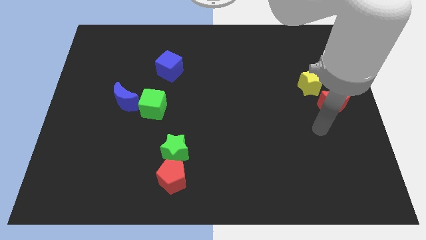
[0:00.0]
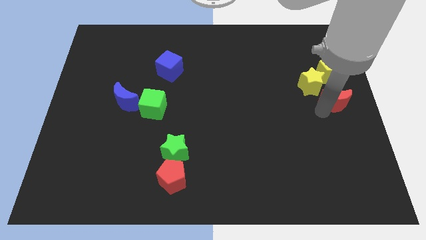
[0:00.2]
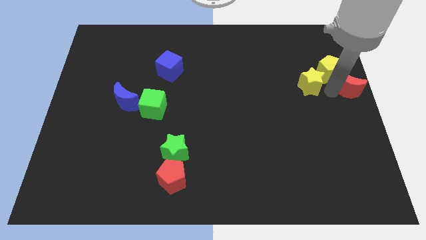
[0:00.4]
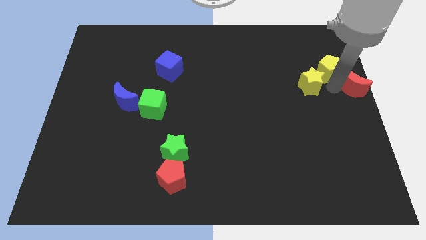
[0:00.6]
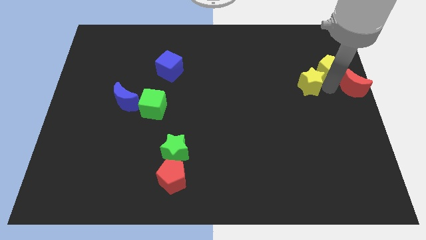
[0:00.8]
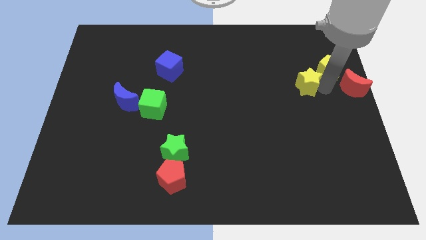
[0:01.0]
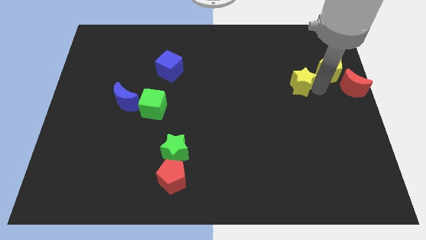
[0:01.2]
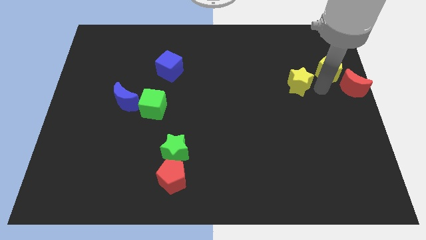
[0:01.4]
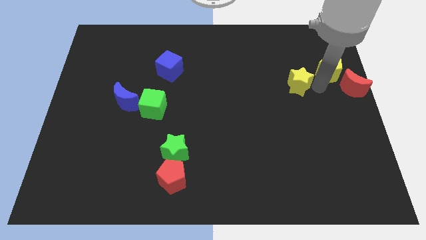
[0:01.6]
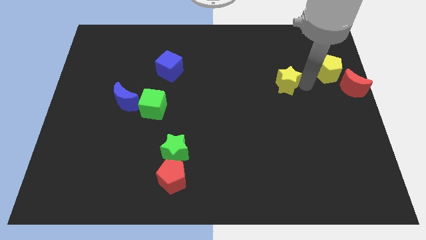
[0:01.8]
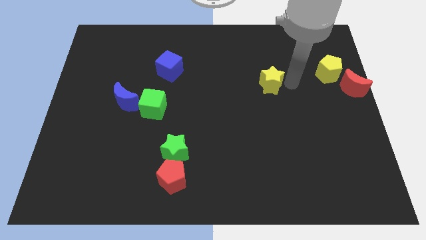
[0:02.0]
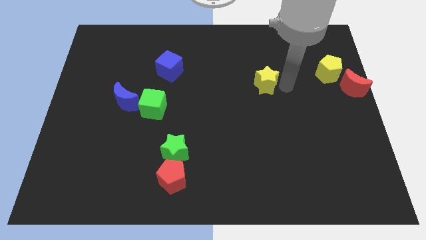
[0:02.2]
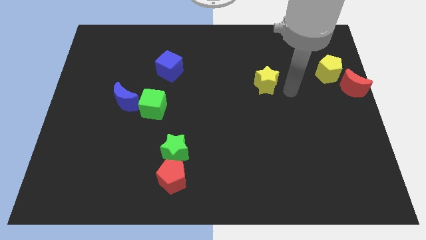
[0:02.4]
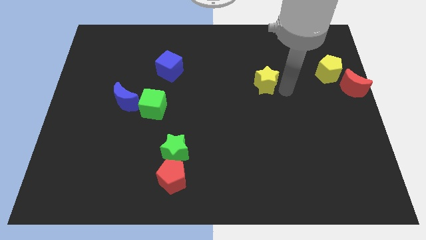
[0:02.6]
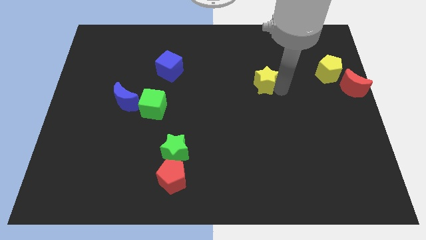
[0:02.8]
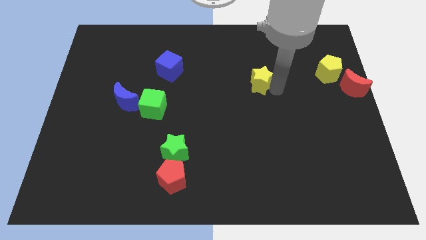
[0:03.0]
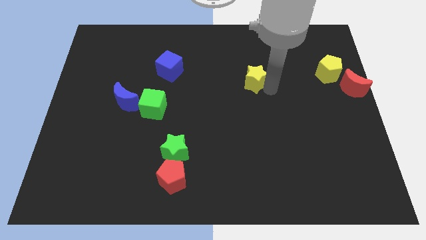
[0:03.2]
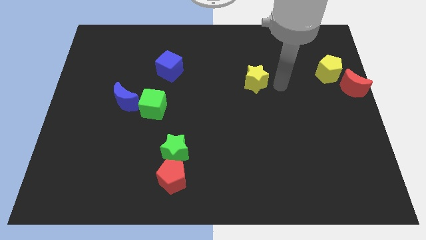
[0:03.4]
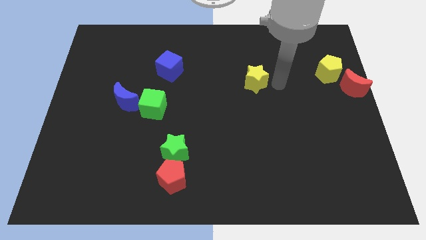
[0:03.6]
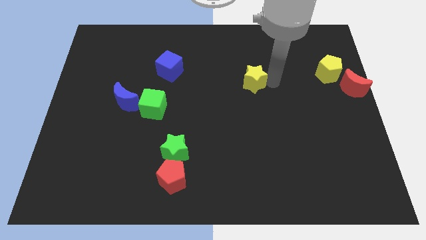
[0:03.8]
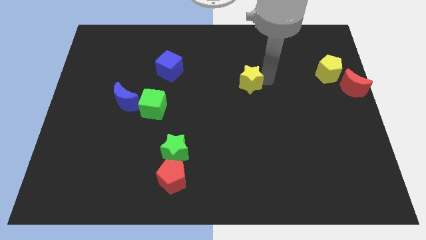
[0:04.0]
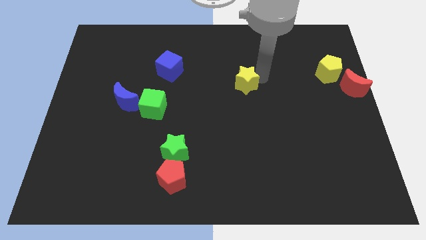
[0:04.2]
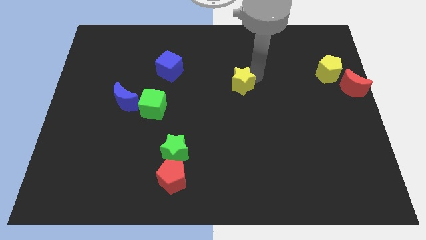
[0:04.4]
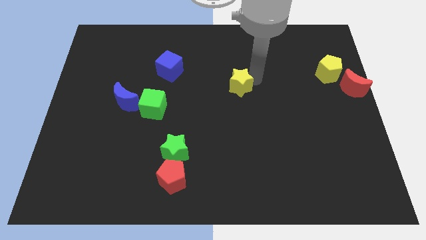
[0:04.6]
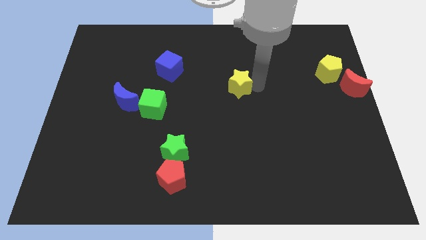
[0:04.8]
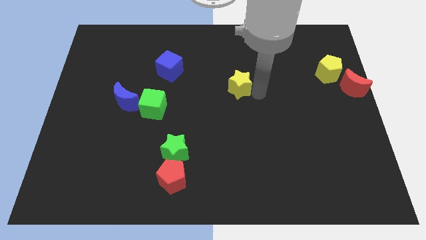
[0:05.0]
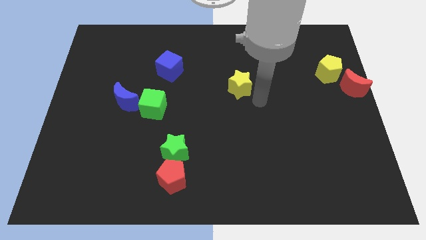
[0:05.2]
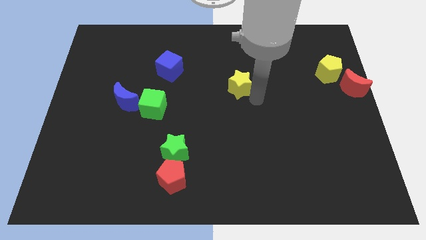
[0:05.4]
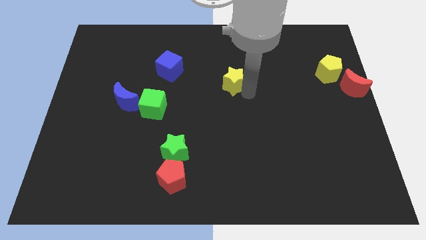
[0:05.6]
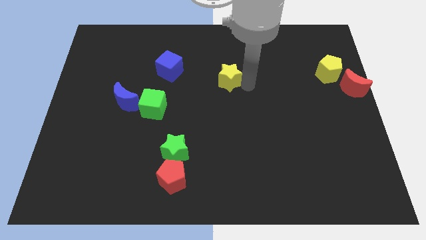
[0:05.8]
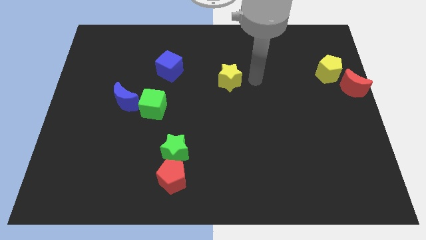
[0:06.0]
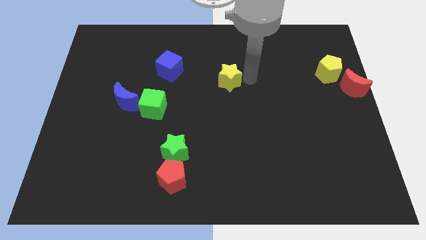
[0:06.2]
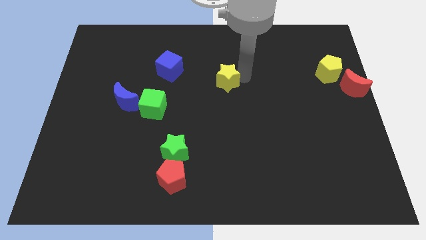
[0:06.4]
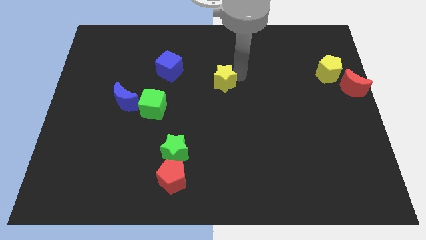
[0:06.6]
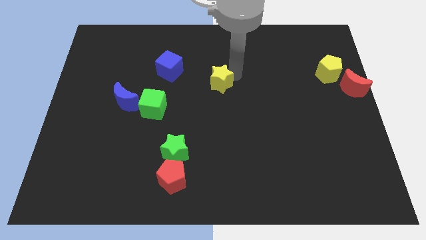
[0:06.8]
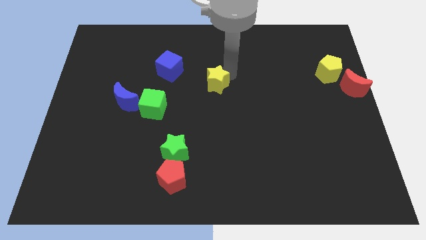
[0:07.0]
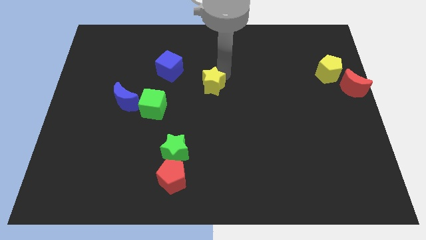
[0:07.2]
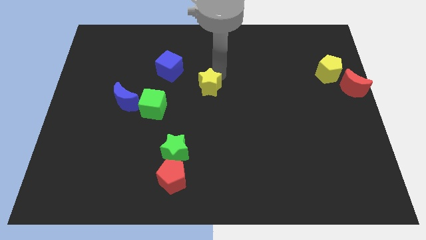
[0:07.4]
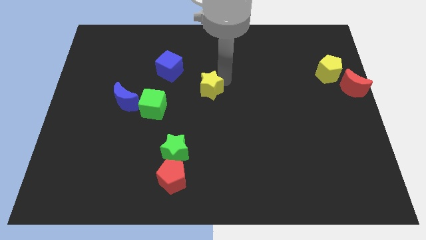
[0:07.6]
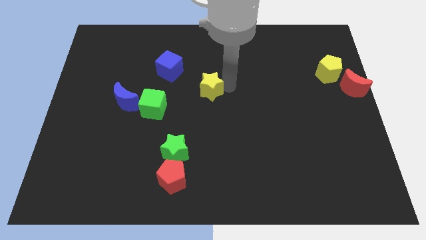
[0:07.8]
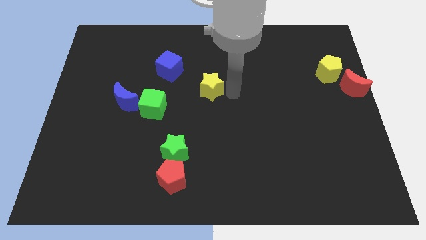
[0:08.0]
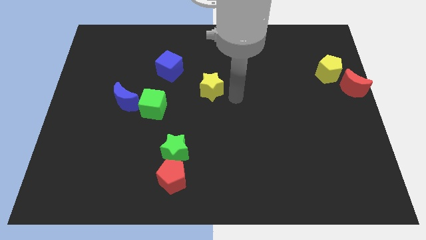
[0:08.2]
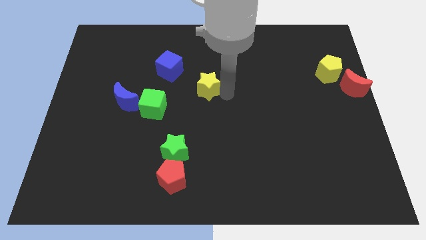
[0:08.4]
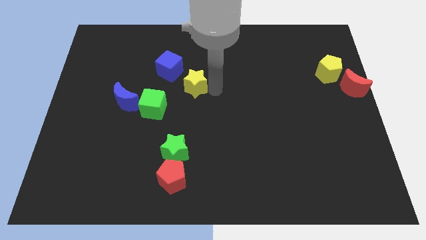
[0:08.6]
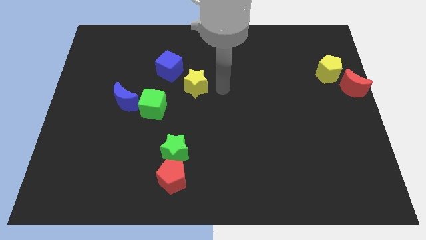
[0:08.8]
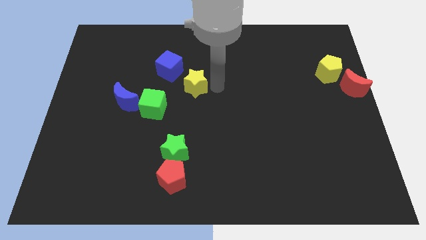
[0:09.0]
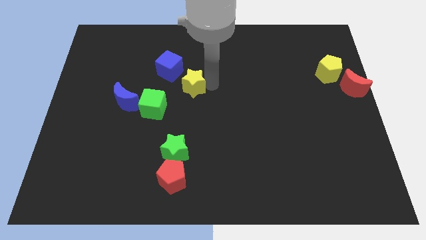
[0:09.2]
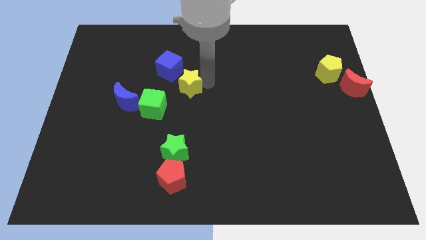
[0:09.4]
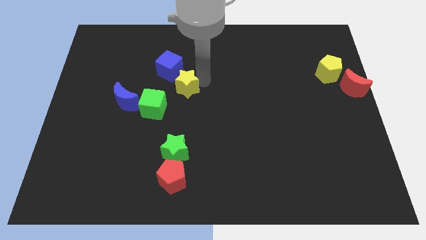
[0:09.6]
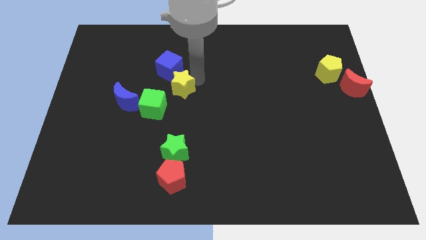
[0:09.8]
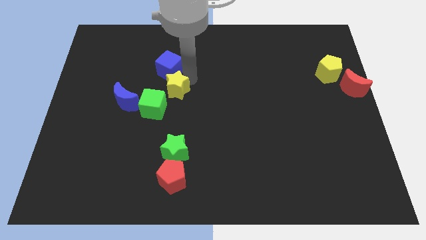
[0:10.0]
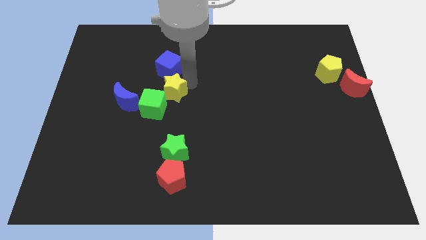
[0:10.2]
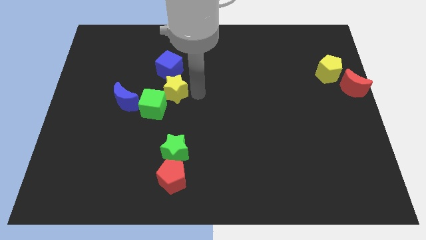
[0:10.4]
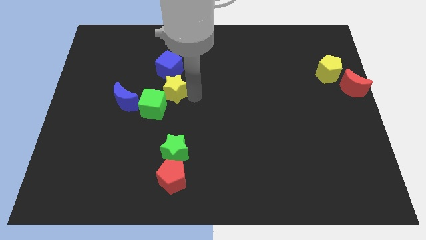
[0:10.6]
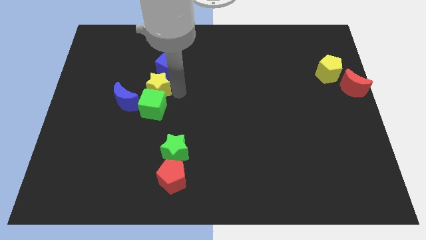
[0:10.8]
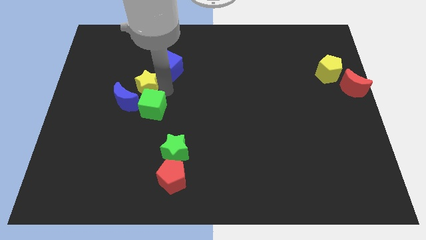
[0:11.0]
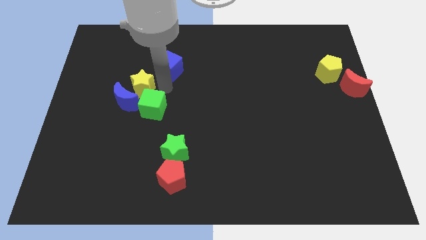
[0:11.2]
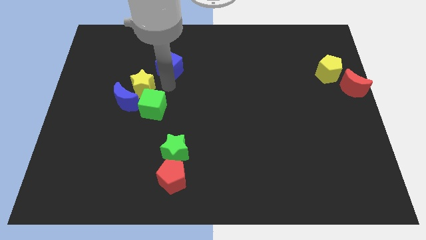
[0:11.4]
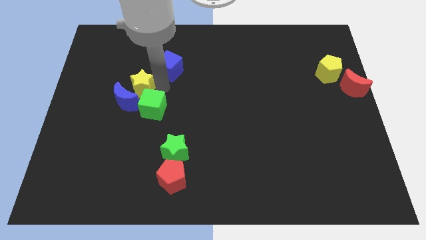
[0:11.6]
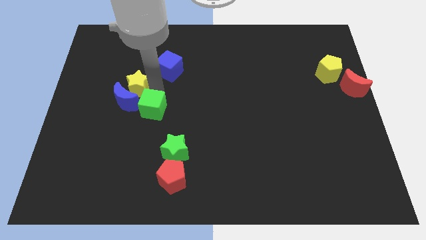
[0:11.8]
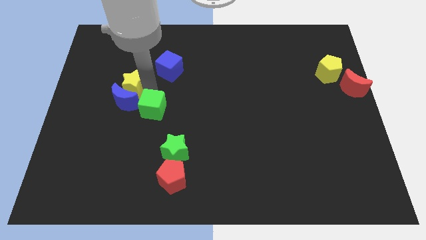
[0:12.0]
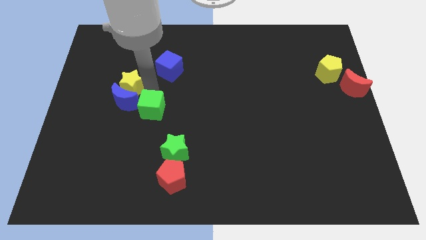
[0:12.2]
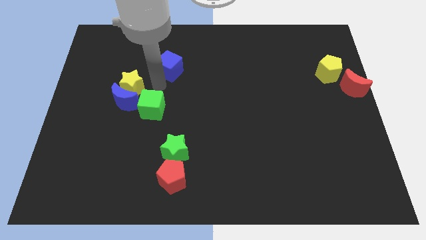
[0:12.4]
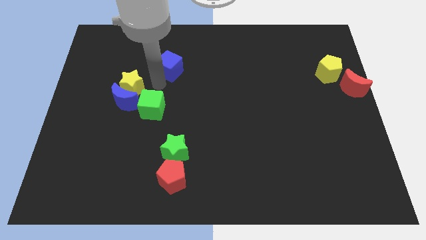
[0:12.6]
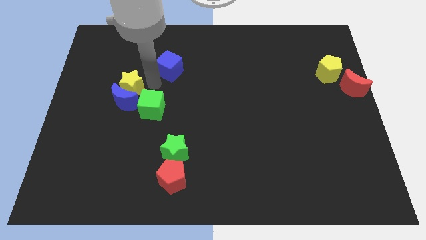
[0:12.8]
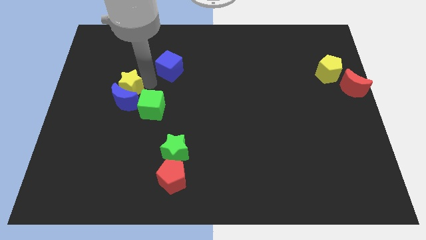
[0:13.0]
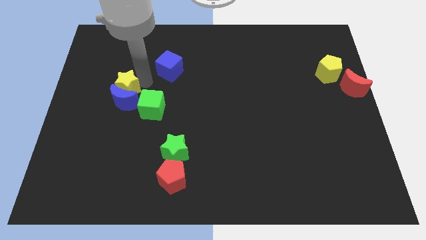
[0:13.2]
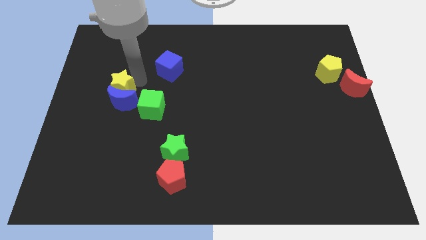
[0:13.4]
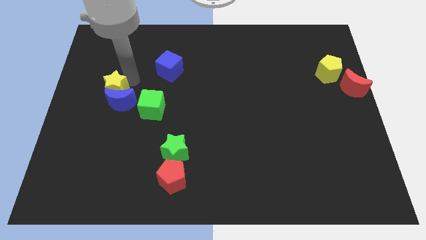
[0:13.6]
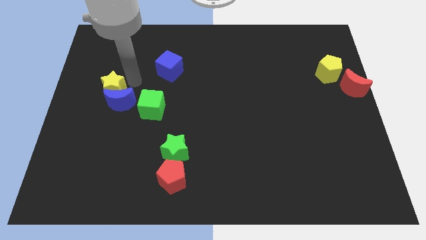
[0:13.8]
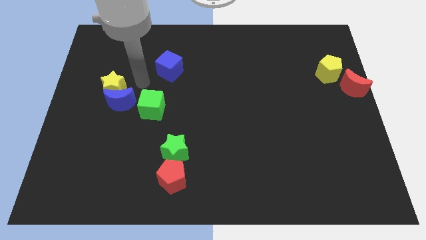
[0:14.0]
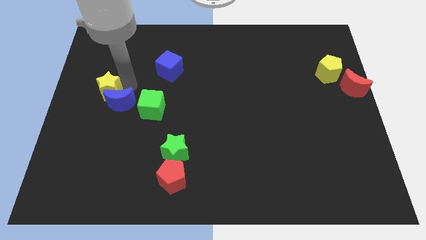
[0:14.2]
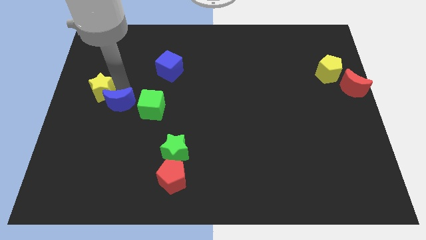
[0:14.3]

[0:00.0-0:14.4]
push the yellow star to the left side of the board
